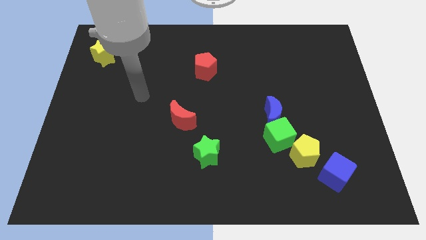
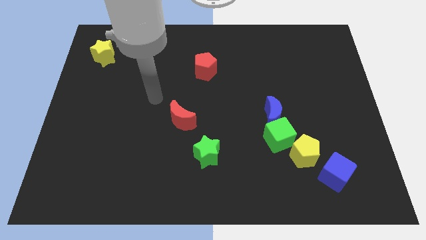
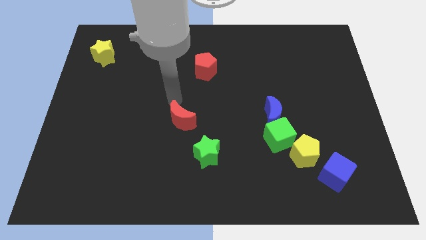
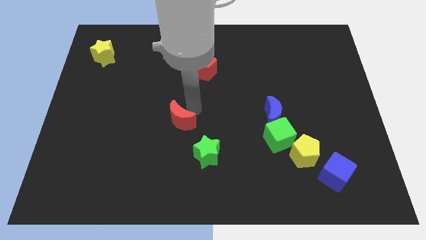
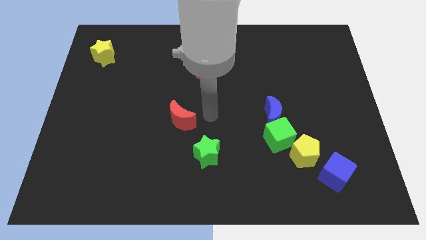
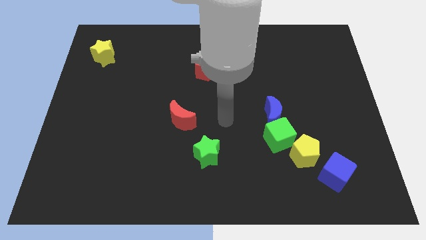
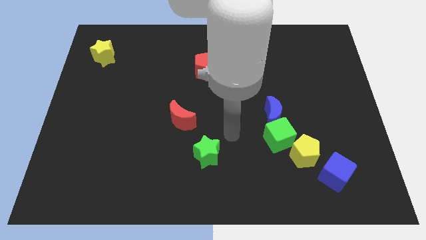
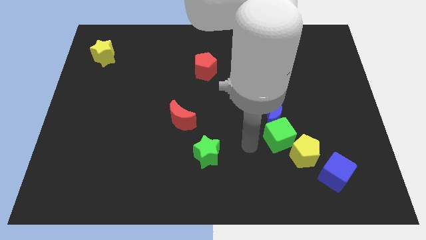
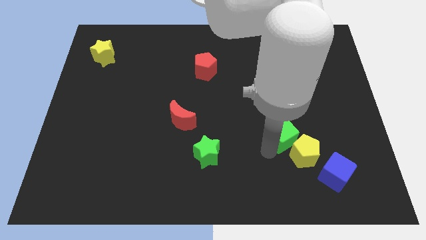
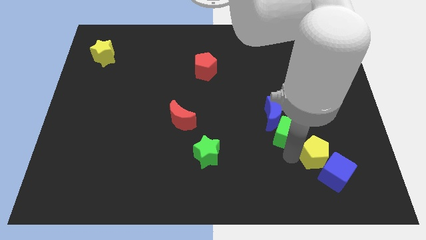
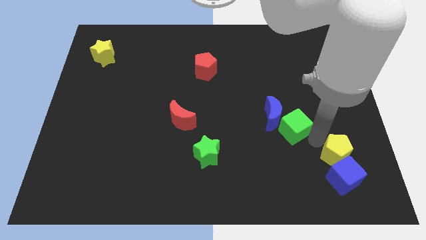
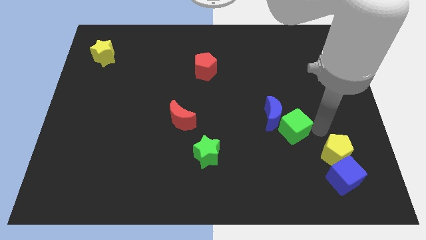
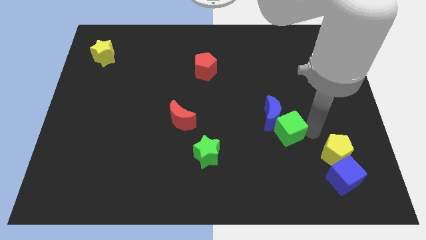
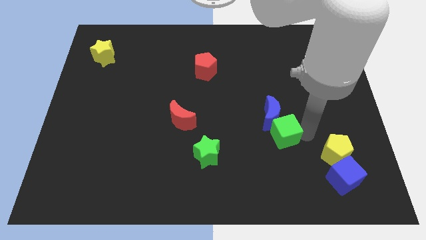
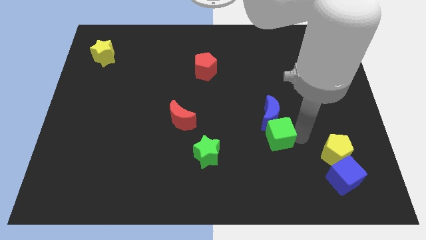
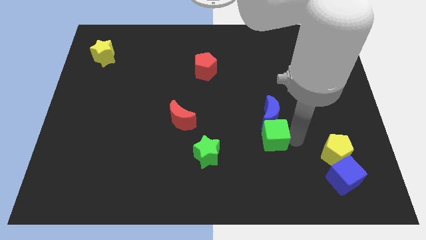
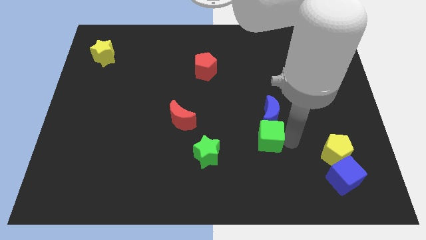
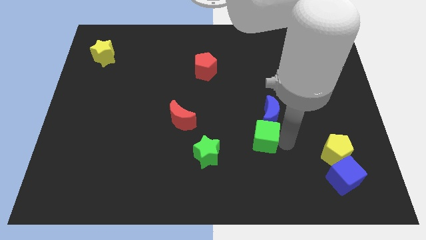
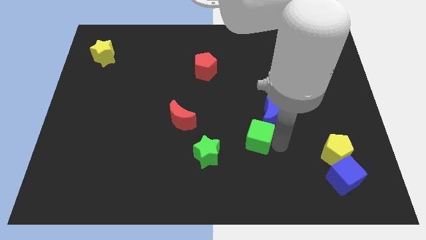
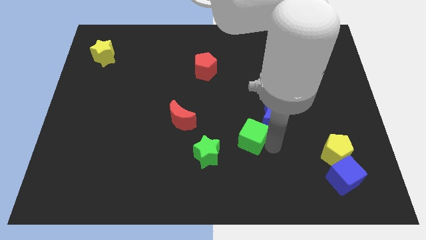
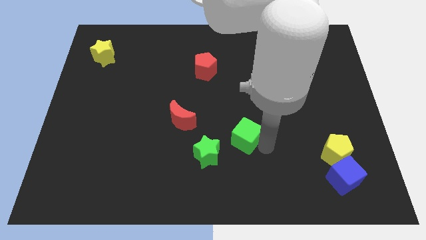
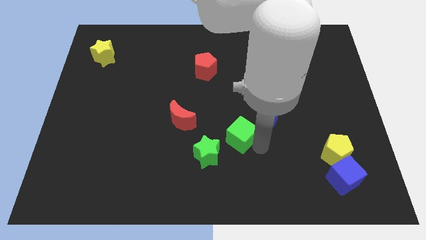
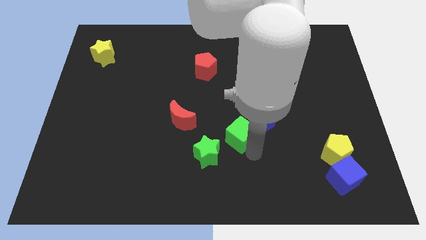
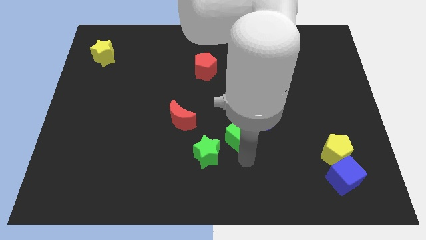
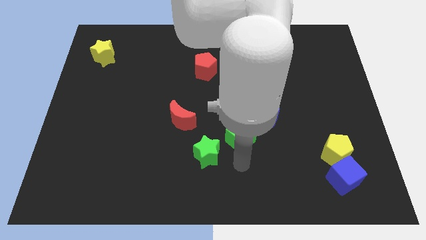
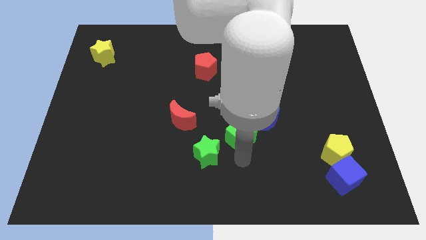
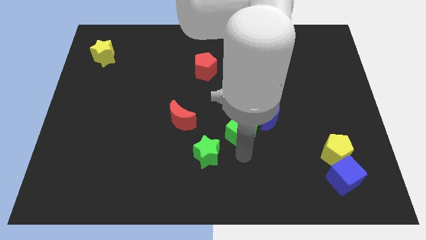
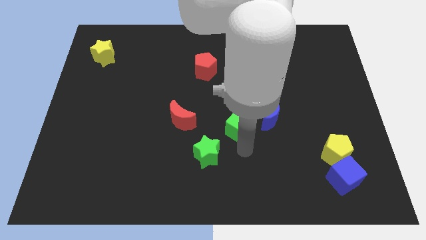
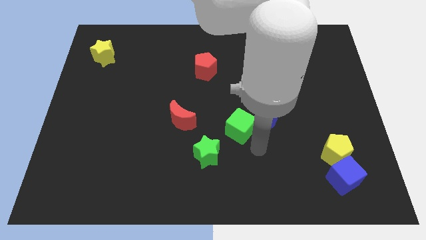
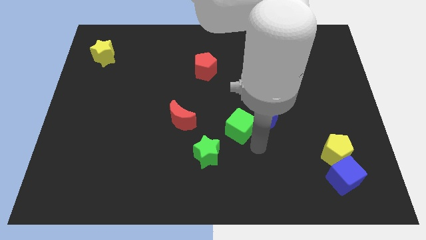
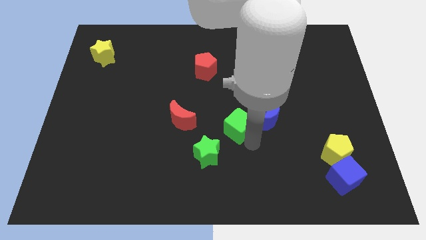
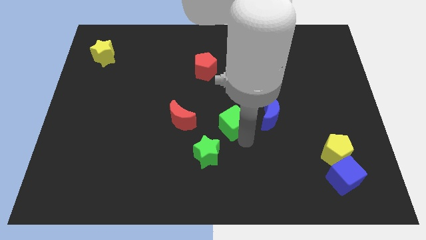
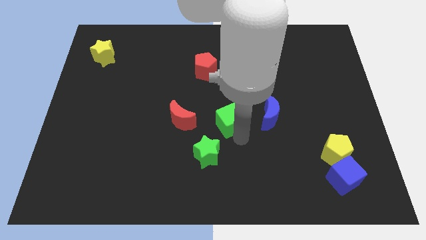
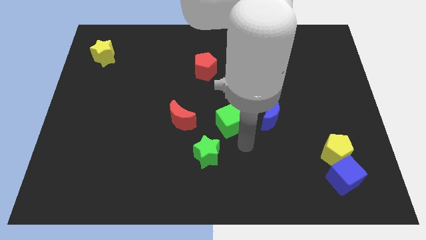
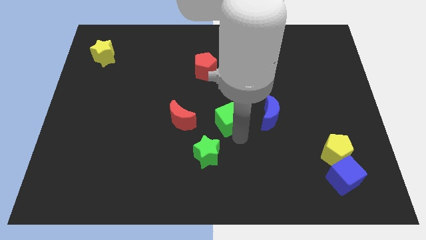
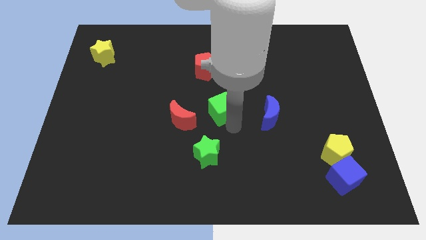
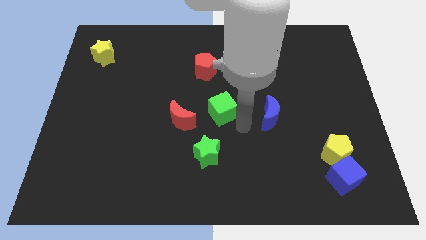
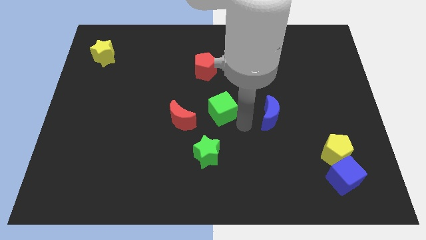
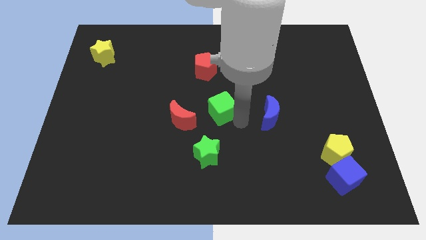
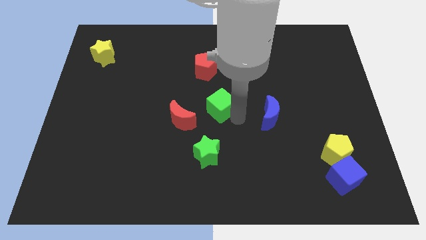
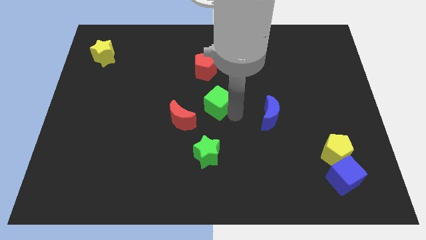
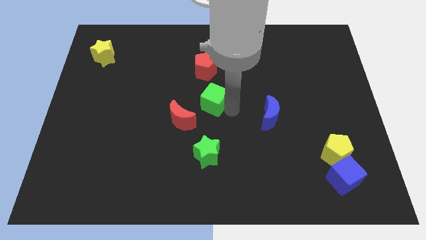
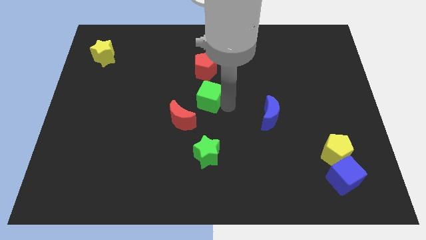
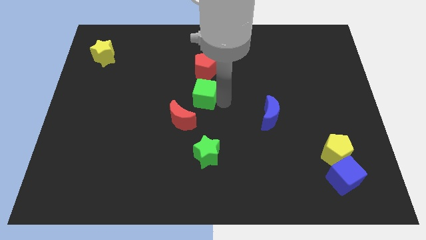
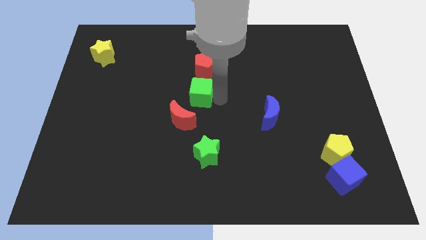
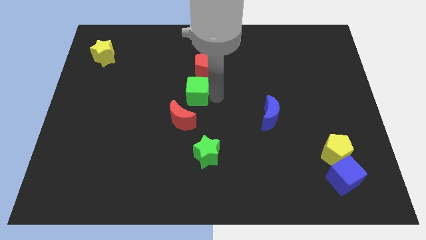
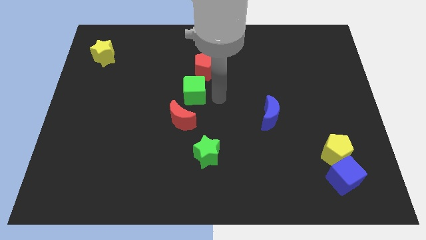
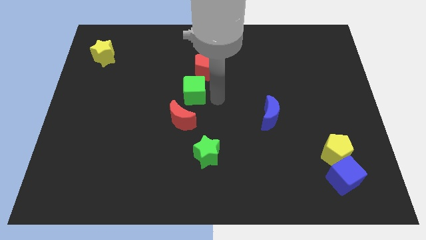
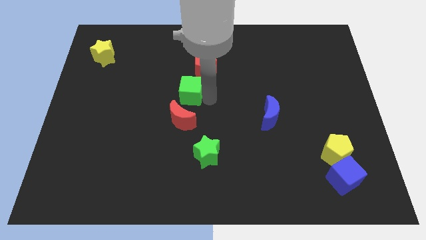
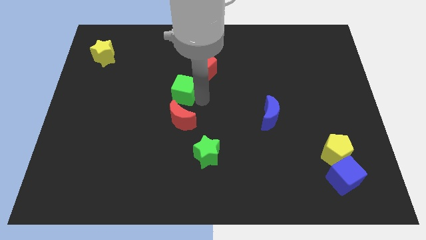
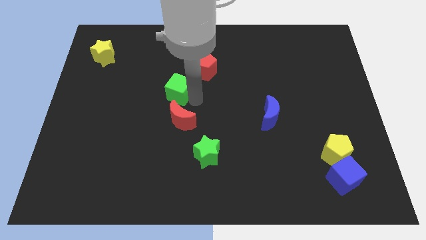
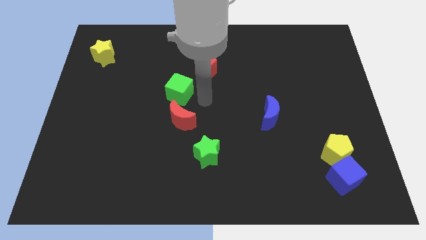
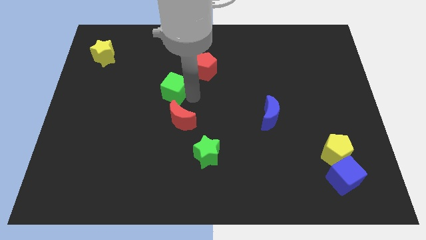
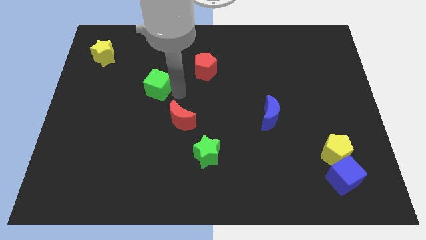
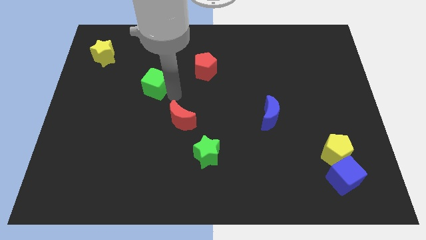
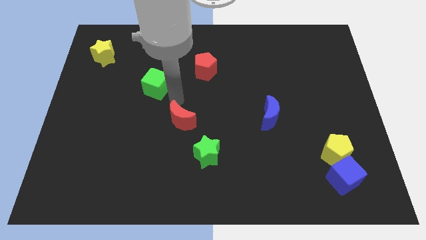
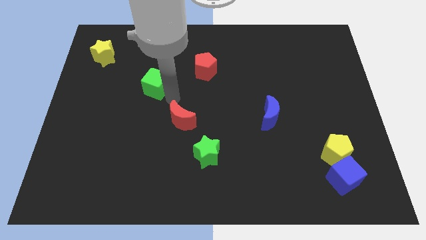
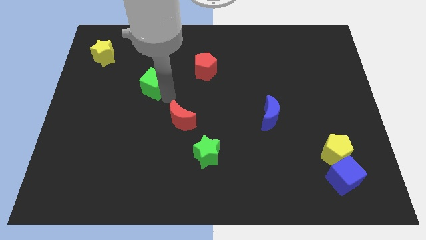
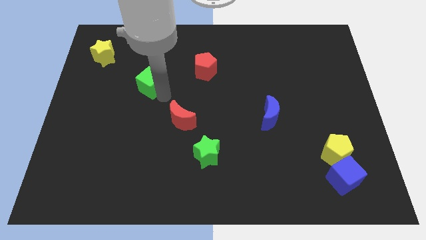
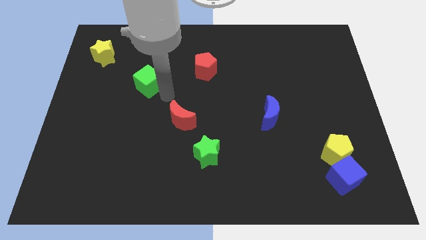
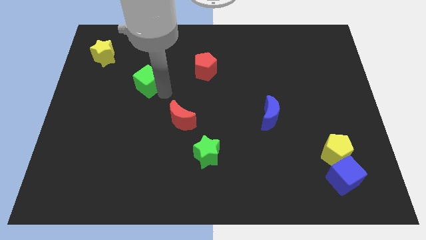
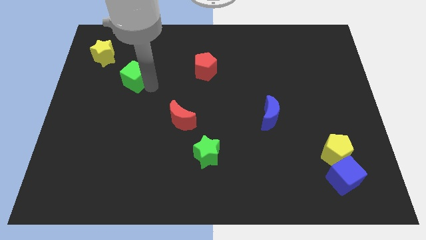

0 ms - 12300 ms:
slide the green cube diagonally down and to the right of the yellow star

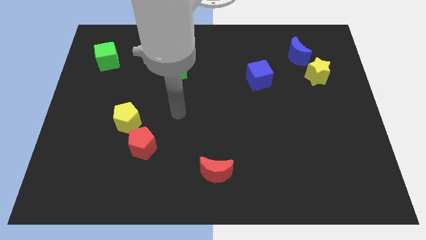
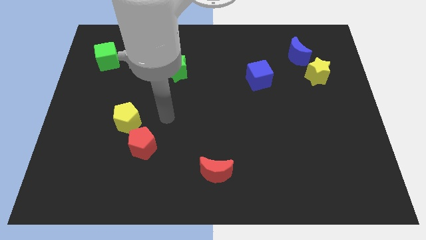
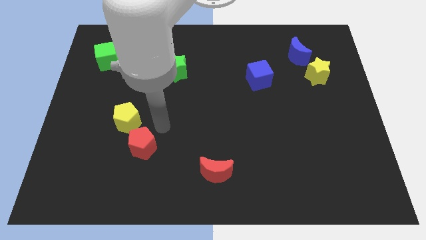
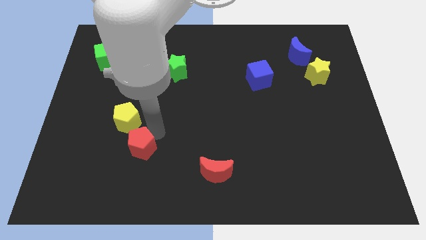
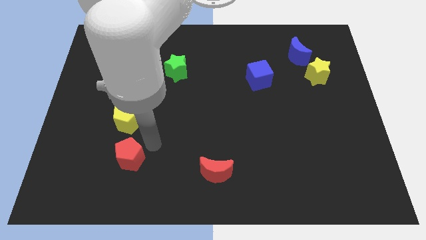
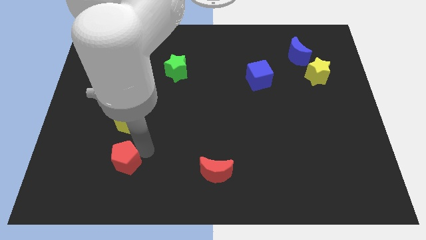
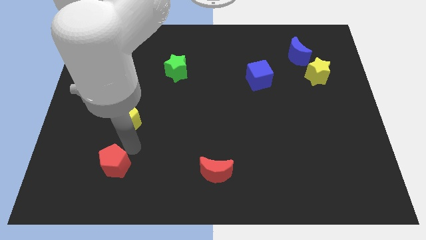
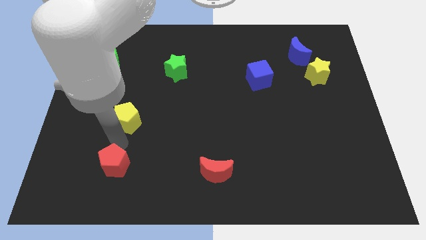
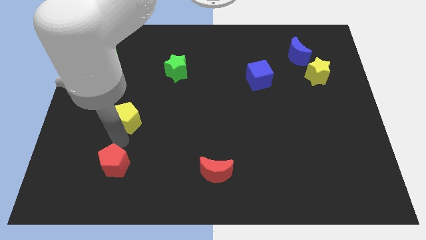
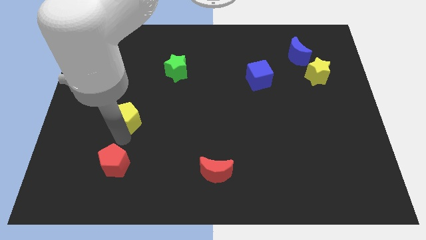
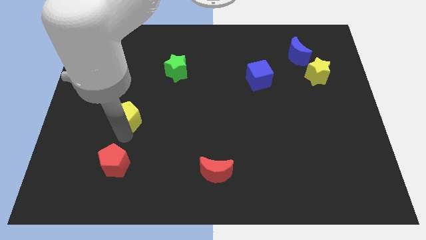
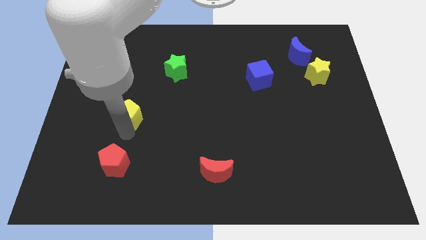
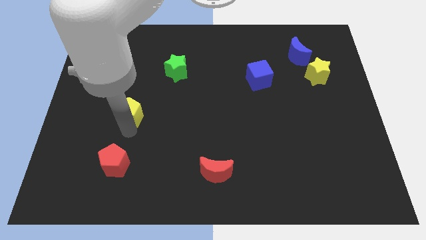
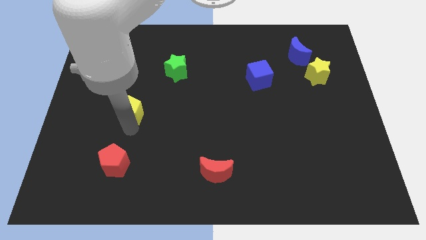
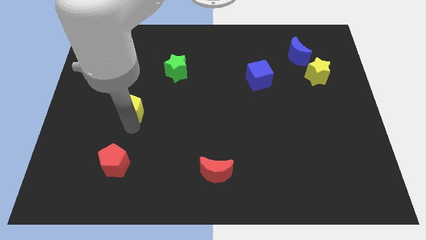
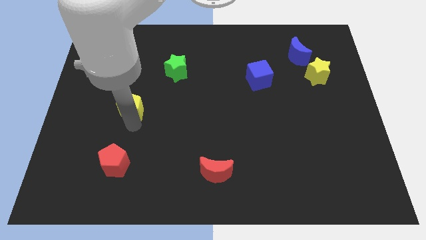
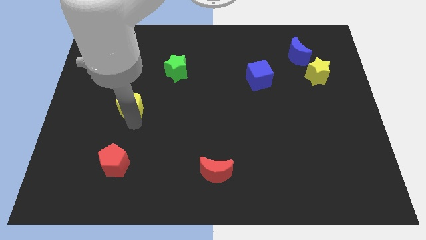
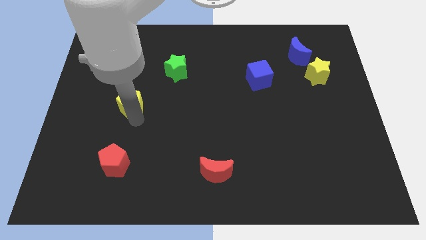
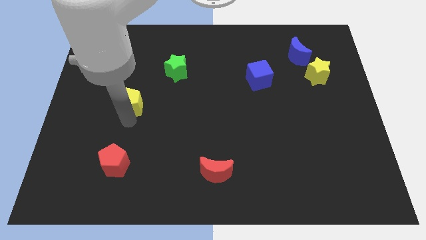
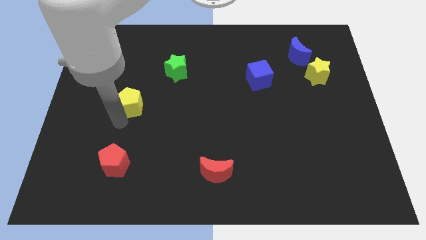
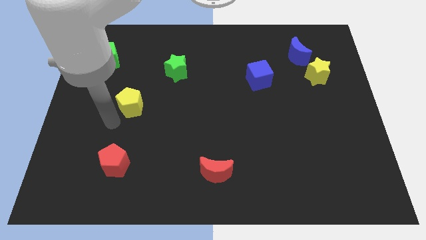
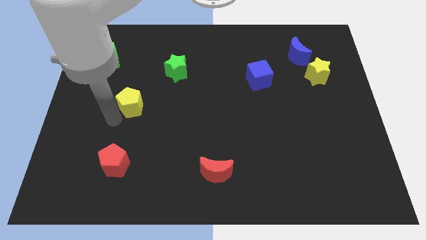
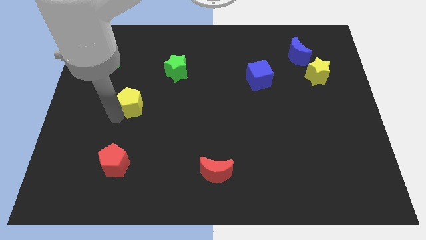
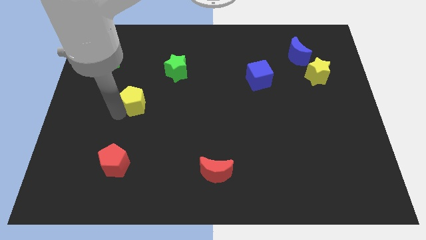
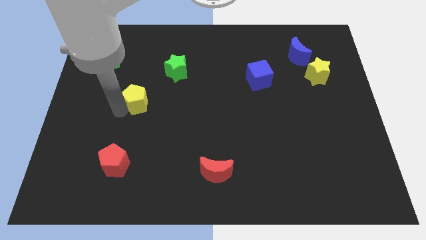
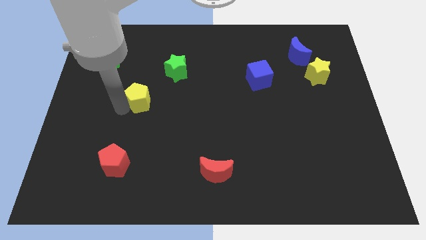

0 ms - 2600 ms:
slide the yellow pentagon to the bottom left side of the green star
